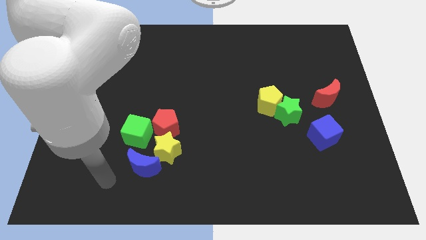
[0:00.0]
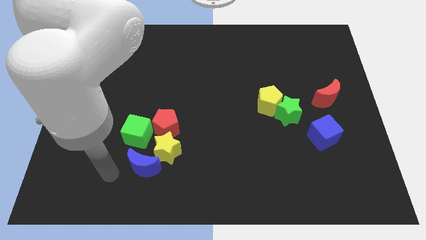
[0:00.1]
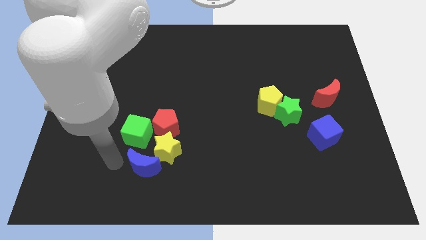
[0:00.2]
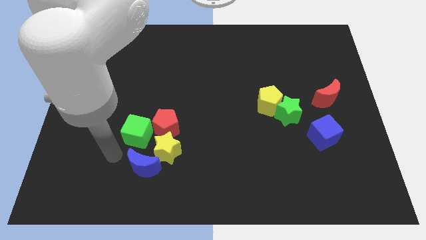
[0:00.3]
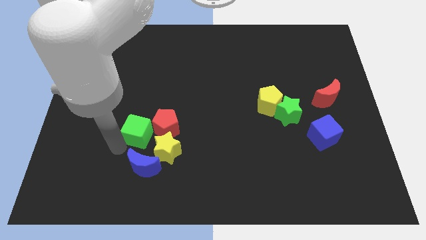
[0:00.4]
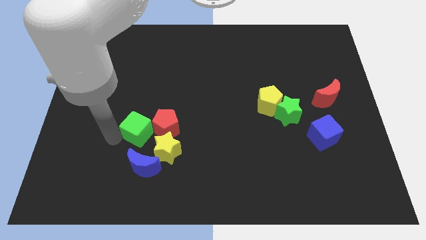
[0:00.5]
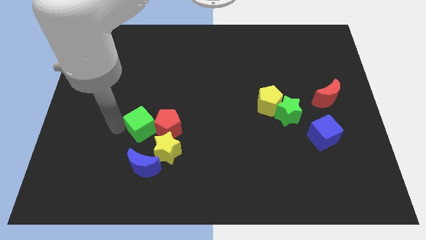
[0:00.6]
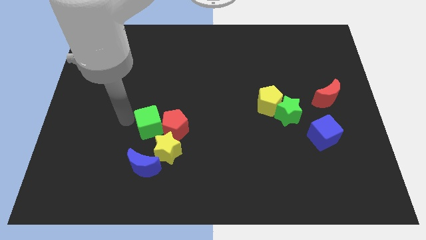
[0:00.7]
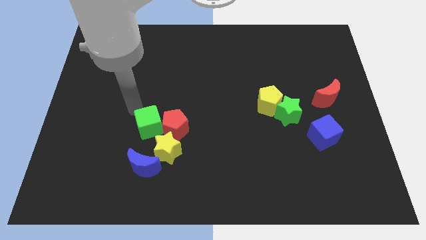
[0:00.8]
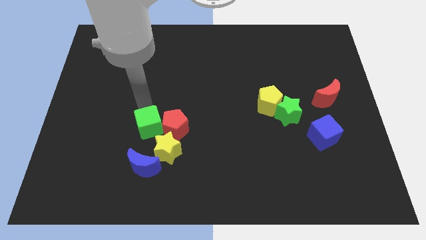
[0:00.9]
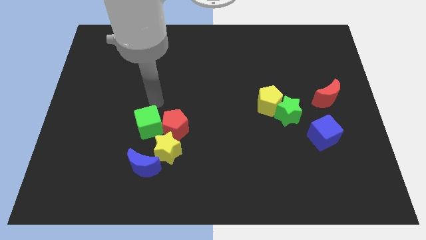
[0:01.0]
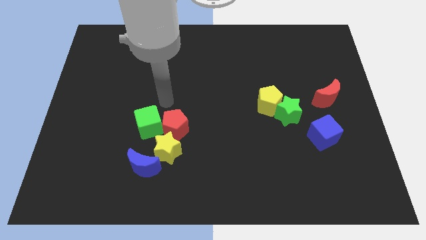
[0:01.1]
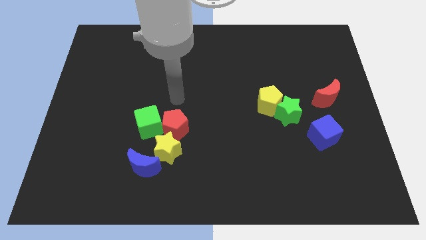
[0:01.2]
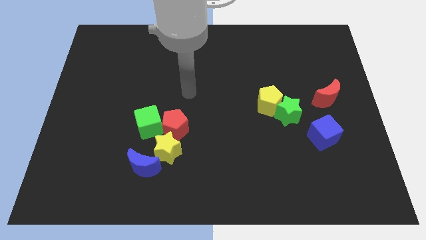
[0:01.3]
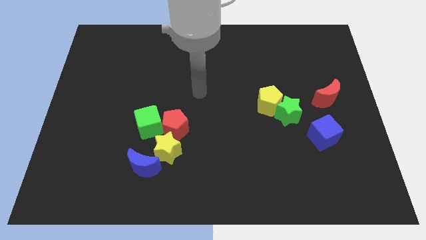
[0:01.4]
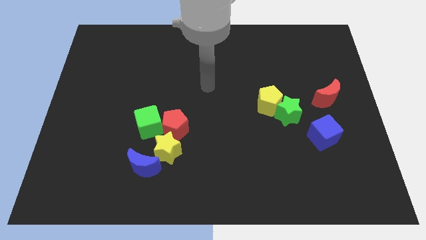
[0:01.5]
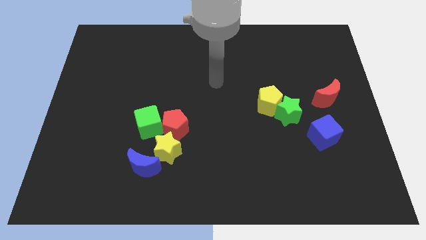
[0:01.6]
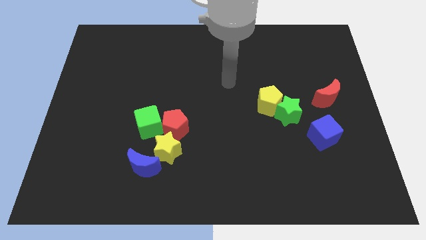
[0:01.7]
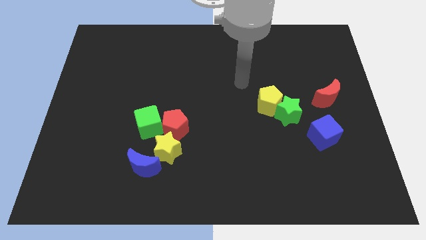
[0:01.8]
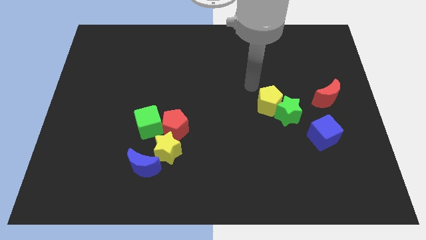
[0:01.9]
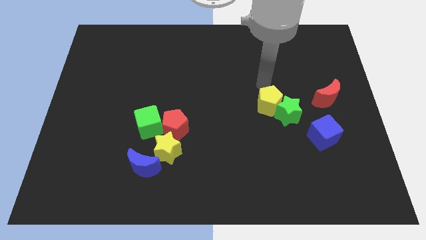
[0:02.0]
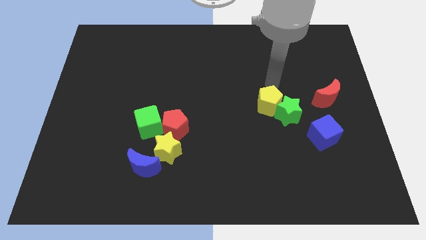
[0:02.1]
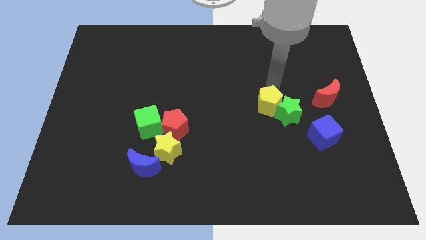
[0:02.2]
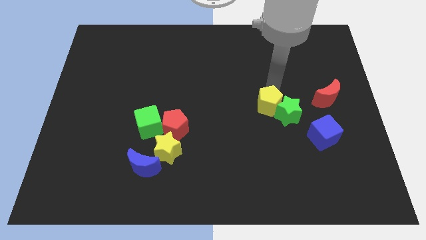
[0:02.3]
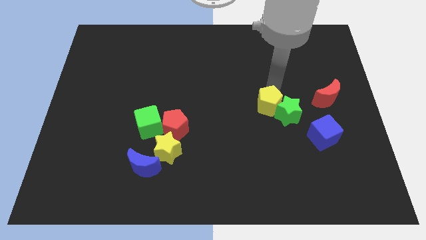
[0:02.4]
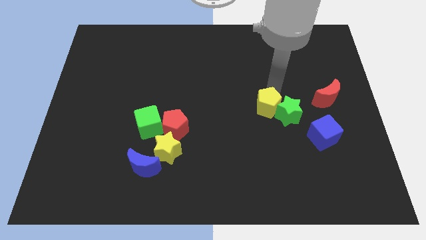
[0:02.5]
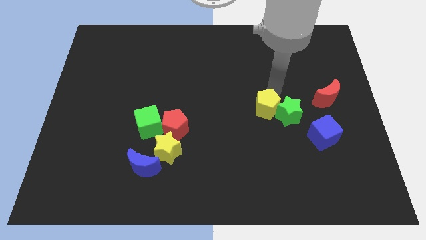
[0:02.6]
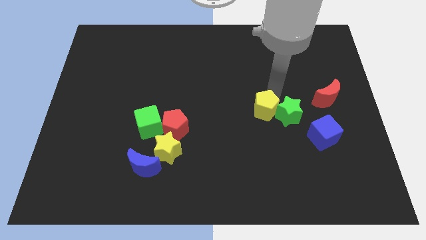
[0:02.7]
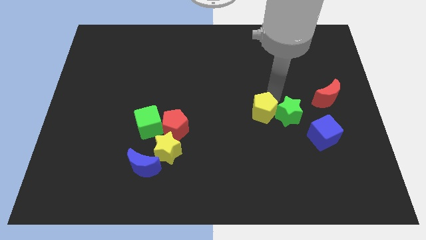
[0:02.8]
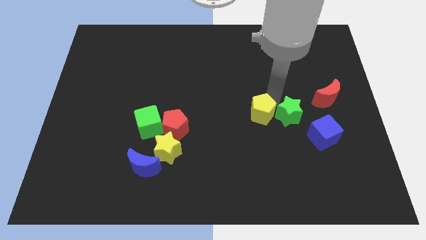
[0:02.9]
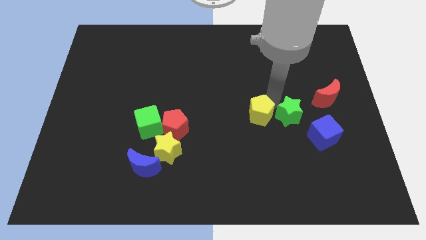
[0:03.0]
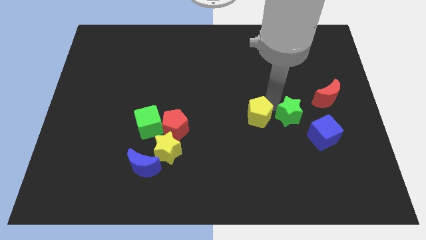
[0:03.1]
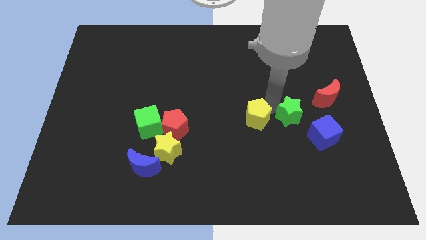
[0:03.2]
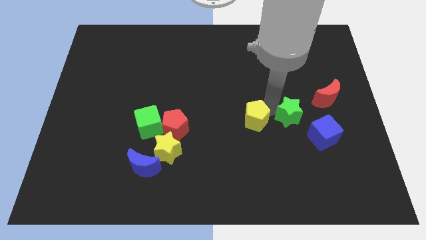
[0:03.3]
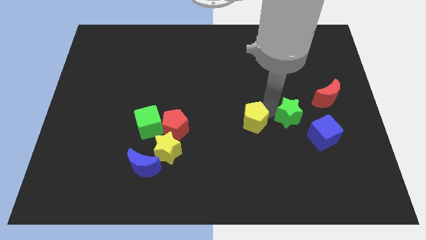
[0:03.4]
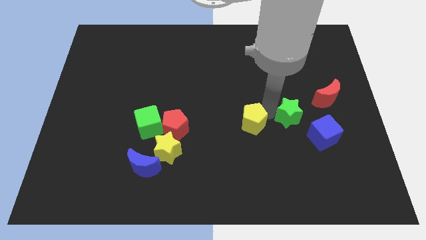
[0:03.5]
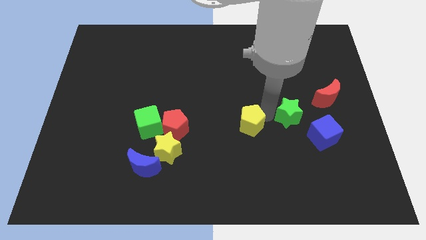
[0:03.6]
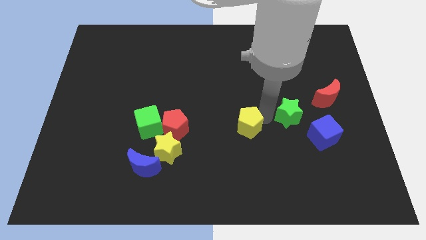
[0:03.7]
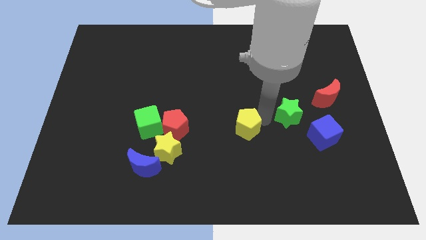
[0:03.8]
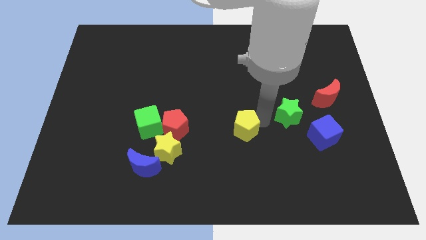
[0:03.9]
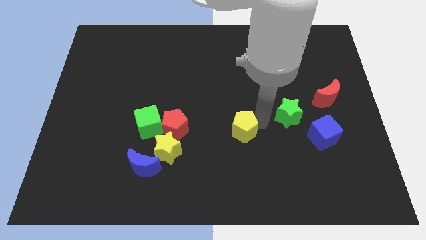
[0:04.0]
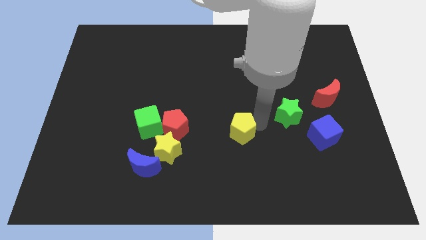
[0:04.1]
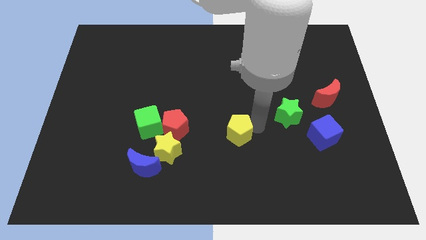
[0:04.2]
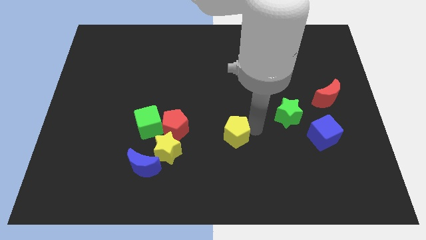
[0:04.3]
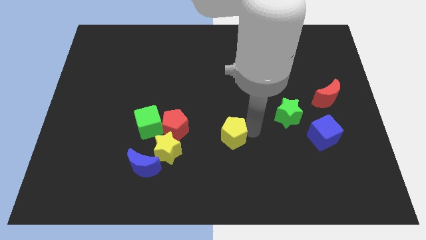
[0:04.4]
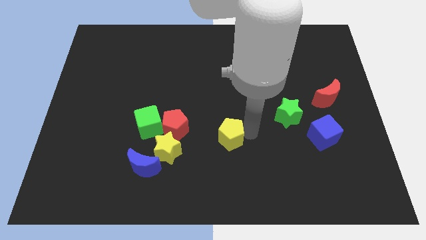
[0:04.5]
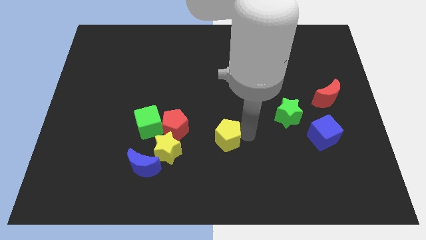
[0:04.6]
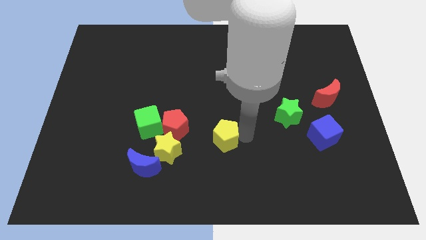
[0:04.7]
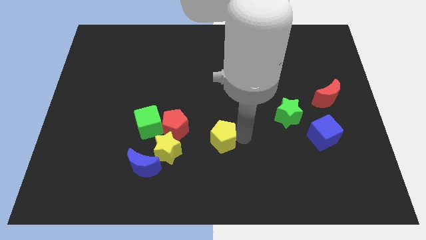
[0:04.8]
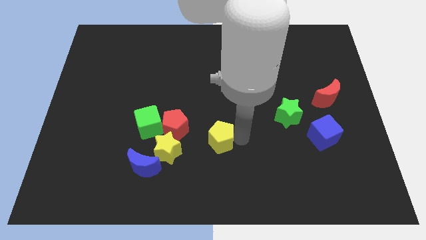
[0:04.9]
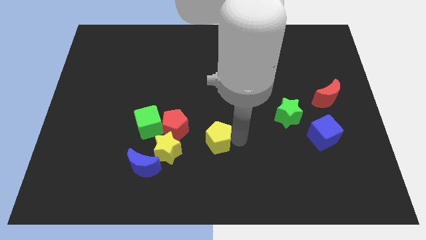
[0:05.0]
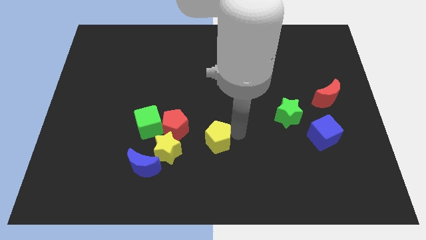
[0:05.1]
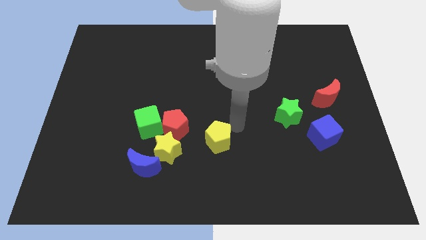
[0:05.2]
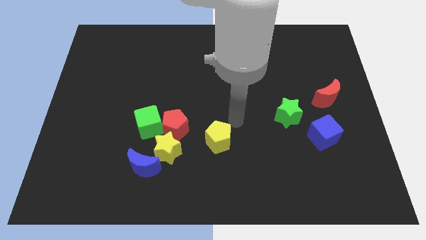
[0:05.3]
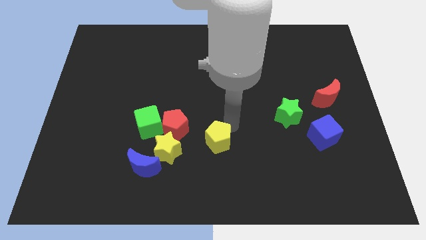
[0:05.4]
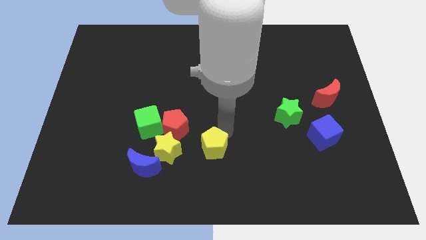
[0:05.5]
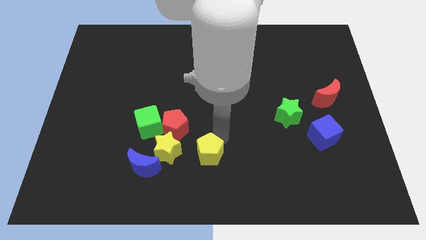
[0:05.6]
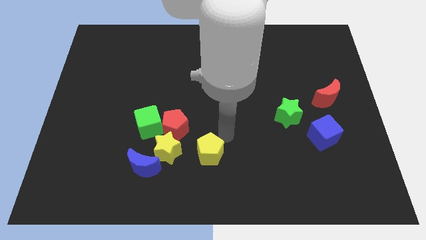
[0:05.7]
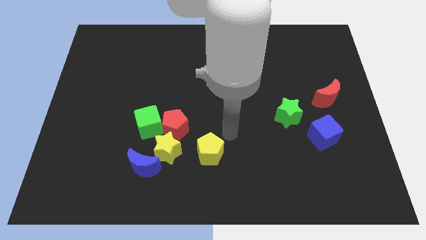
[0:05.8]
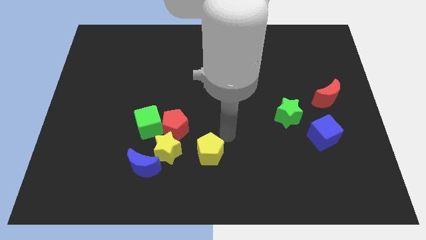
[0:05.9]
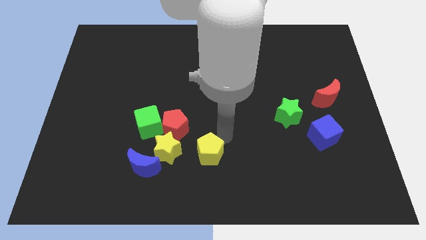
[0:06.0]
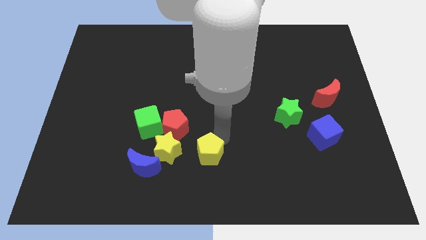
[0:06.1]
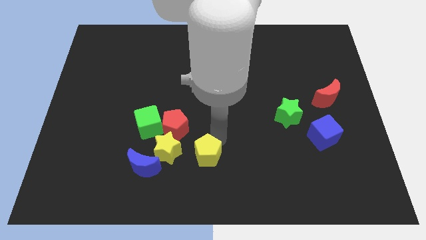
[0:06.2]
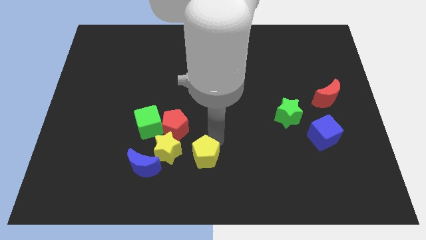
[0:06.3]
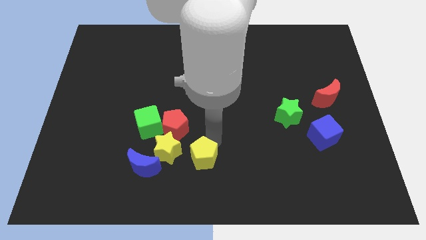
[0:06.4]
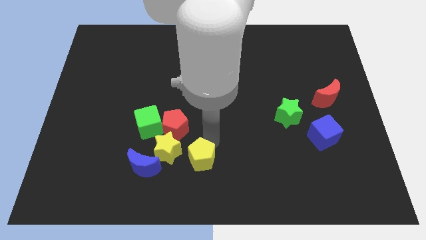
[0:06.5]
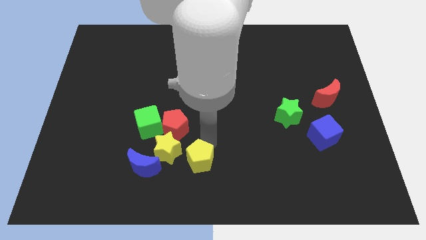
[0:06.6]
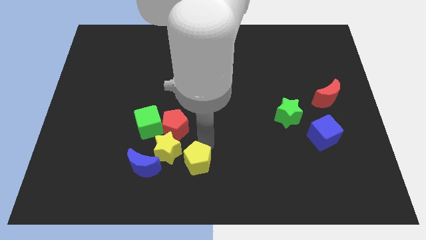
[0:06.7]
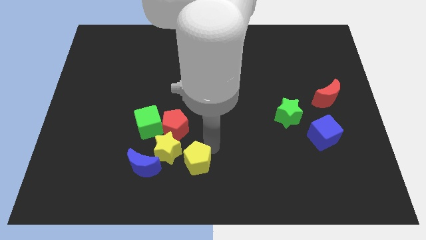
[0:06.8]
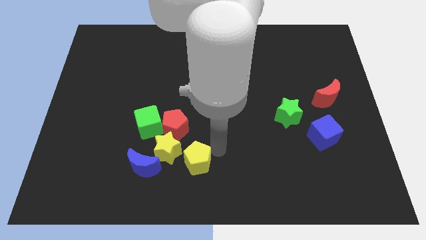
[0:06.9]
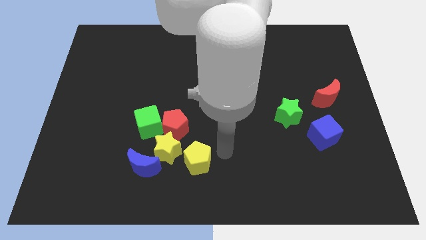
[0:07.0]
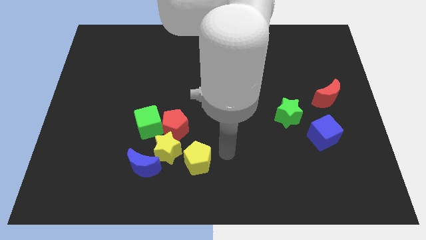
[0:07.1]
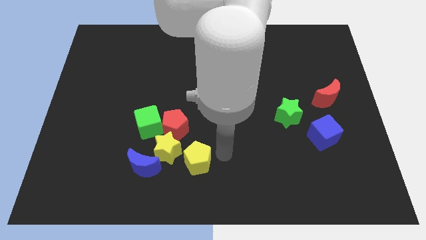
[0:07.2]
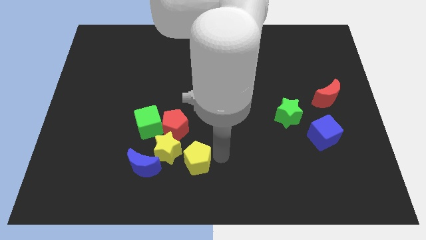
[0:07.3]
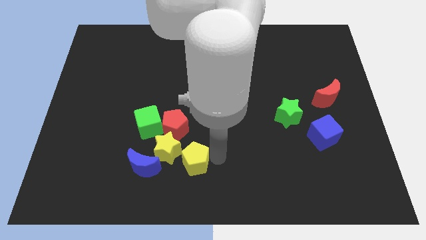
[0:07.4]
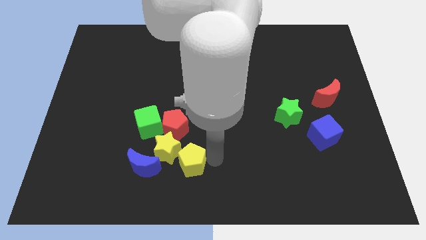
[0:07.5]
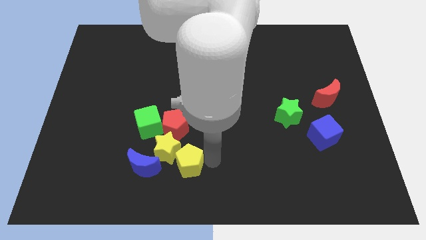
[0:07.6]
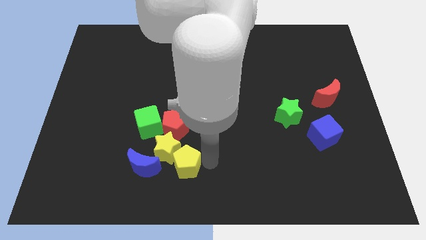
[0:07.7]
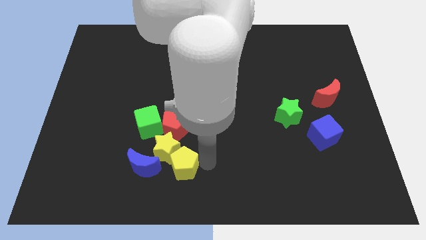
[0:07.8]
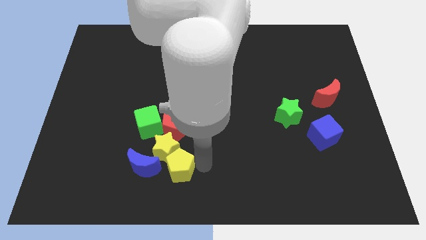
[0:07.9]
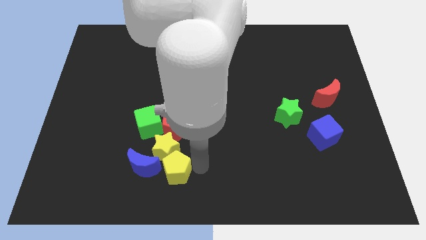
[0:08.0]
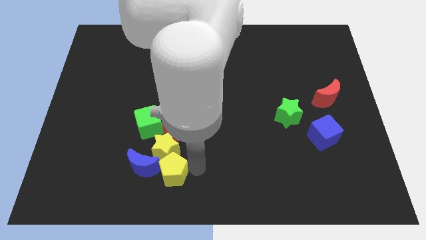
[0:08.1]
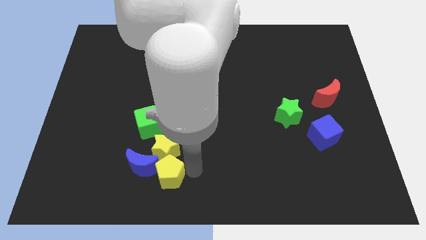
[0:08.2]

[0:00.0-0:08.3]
push the yellow pentagon next to the blue moon
